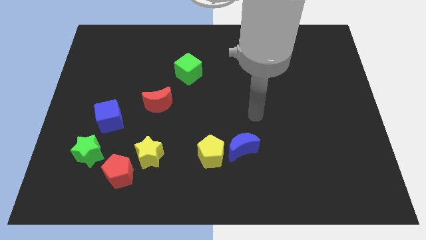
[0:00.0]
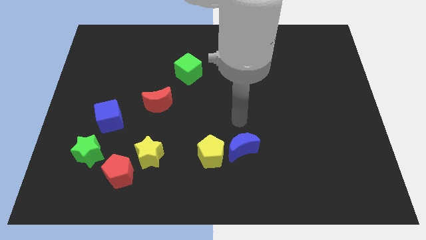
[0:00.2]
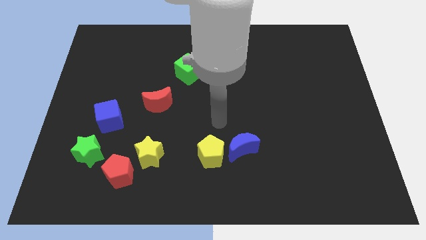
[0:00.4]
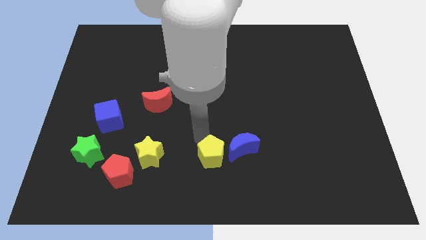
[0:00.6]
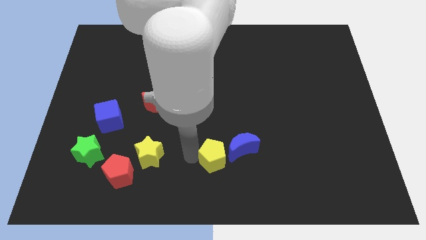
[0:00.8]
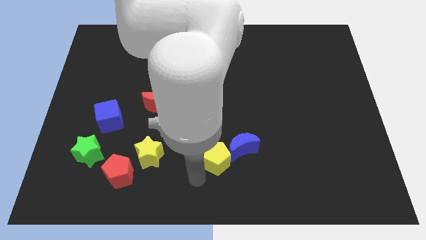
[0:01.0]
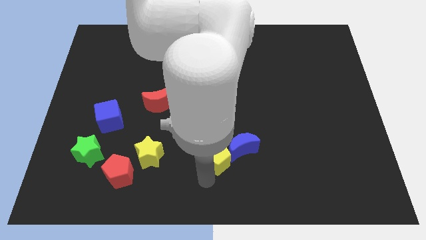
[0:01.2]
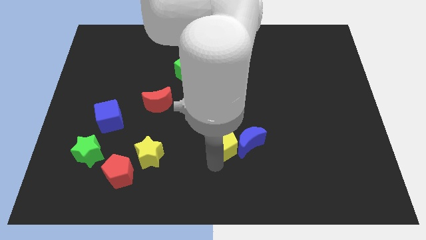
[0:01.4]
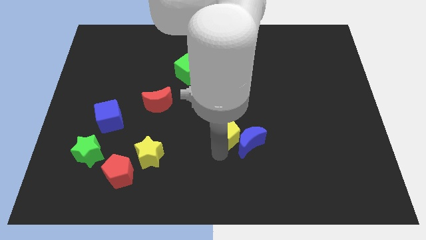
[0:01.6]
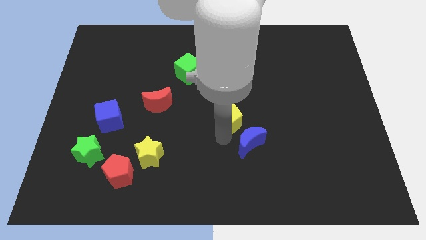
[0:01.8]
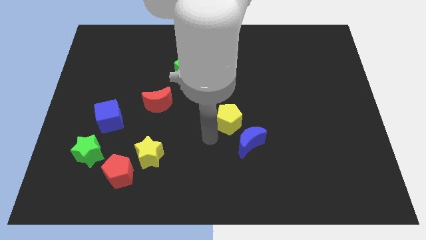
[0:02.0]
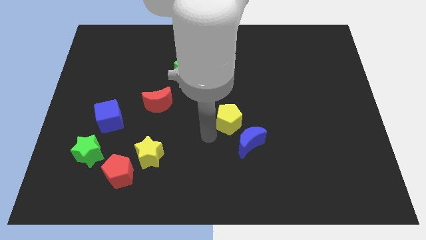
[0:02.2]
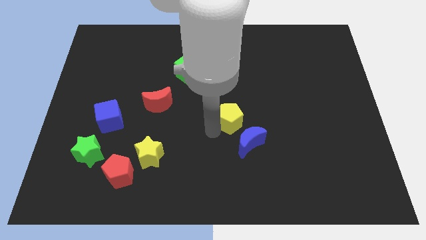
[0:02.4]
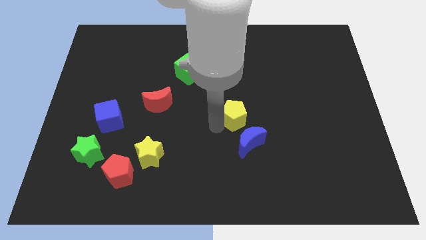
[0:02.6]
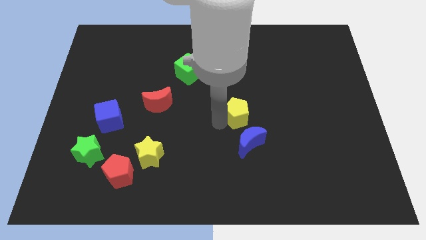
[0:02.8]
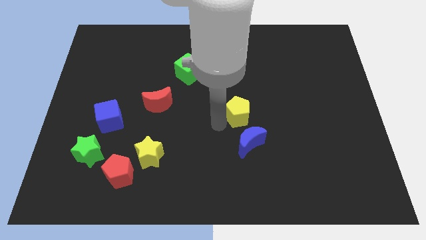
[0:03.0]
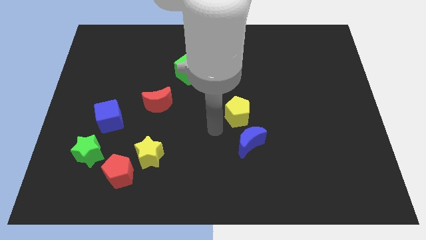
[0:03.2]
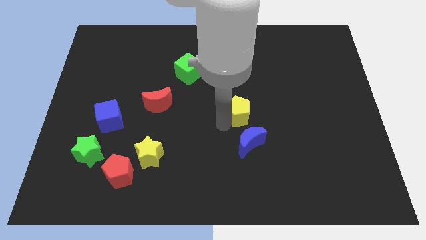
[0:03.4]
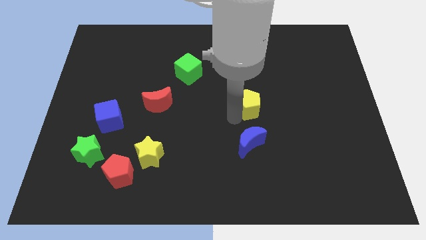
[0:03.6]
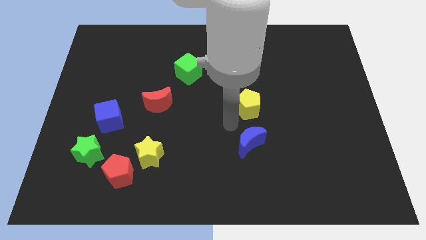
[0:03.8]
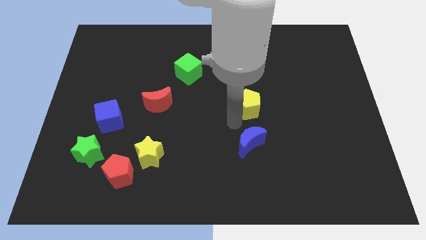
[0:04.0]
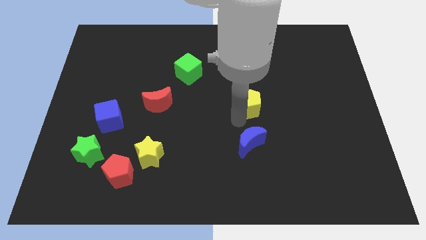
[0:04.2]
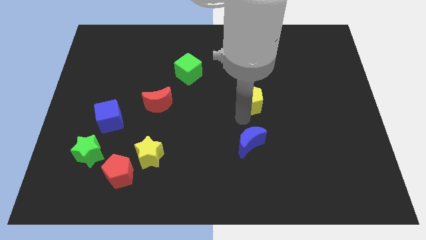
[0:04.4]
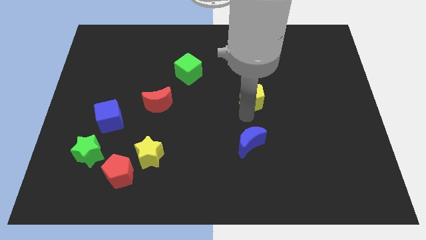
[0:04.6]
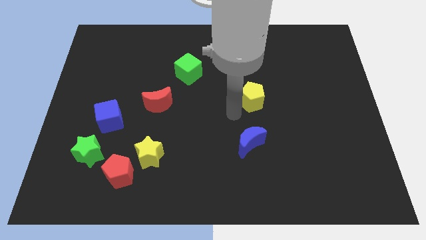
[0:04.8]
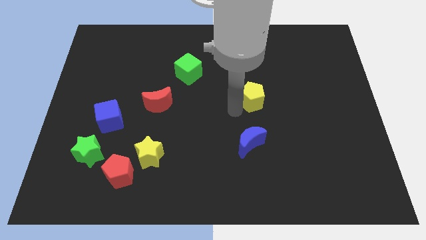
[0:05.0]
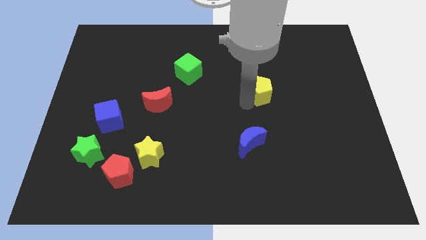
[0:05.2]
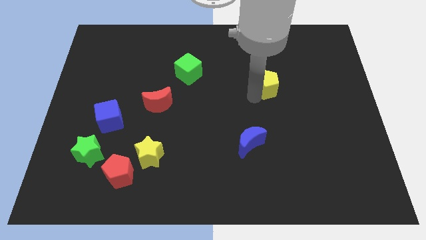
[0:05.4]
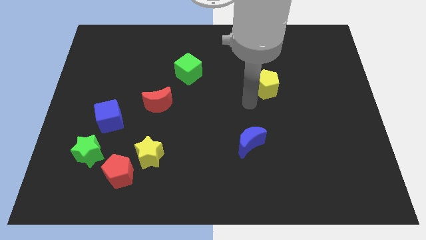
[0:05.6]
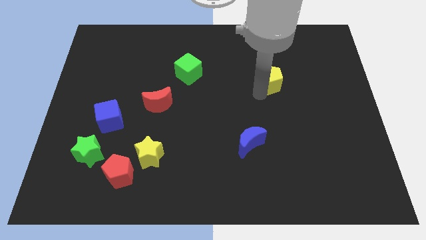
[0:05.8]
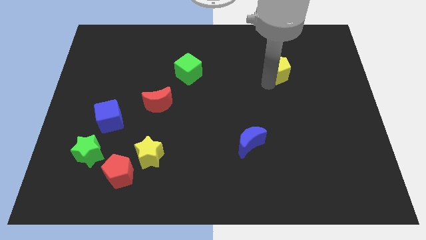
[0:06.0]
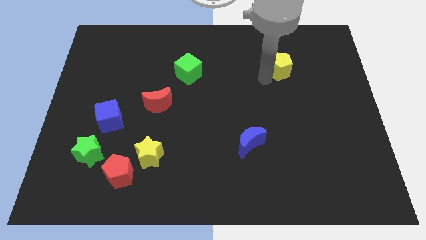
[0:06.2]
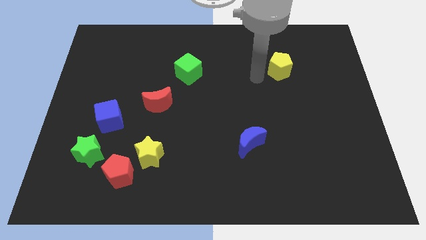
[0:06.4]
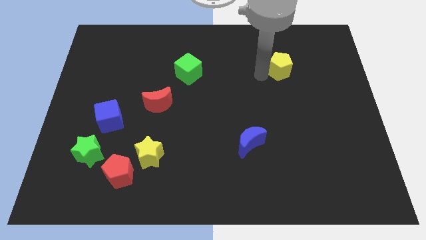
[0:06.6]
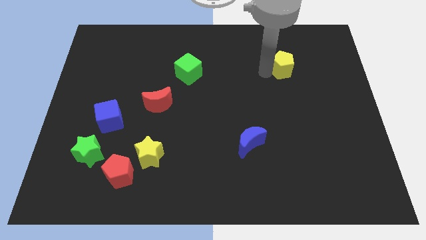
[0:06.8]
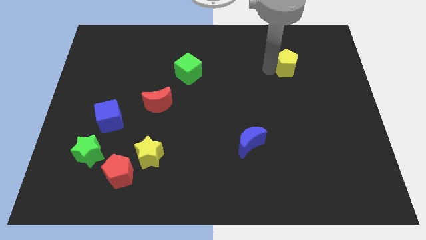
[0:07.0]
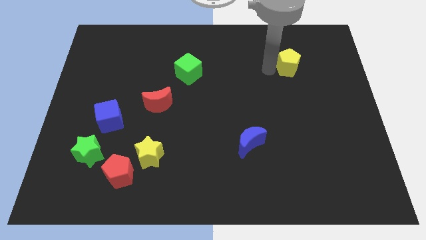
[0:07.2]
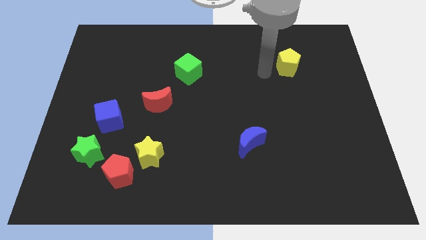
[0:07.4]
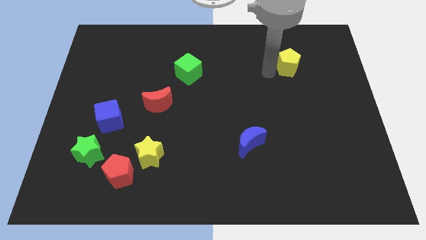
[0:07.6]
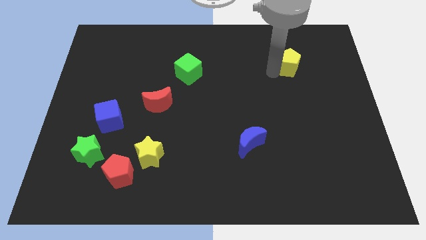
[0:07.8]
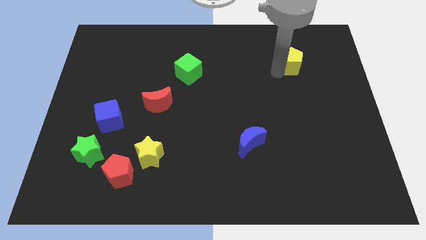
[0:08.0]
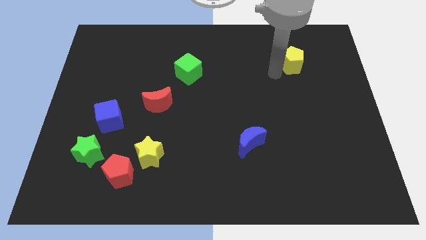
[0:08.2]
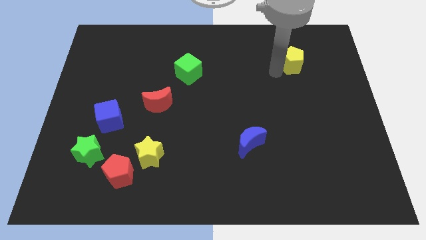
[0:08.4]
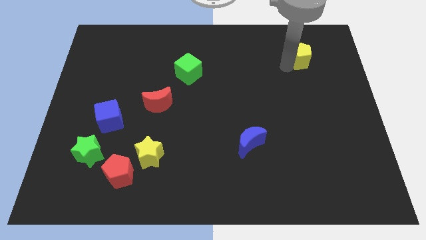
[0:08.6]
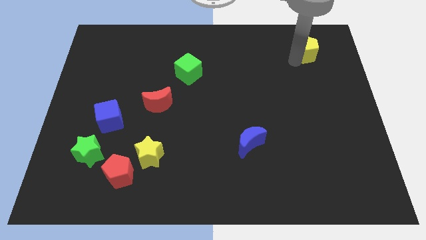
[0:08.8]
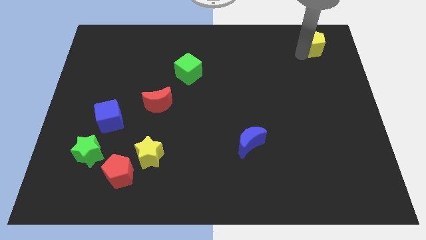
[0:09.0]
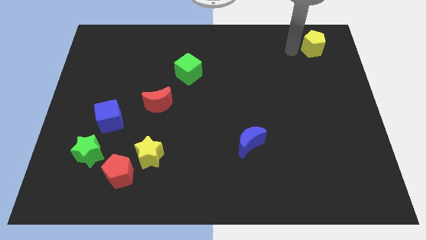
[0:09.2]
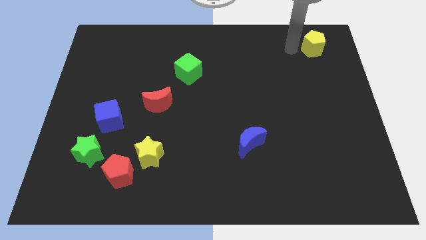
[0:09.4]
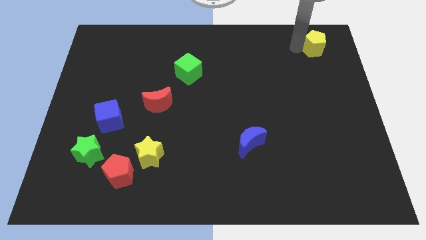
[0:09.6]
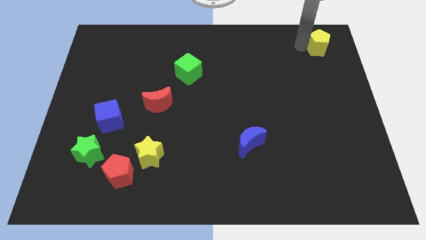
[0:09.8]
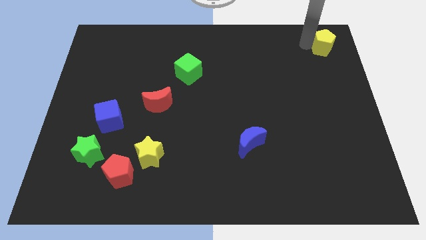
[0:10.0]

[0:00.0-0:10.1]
slide the yellow pentagon to the top right of the board

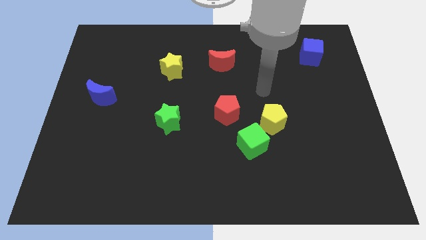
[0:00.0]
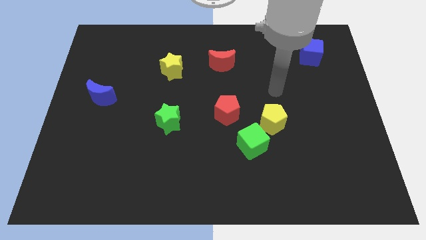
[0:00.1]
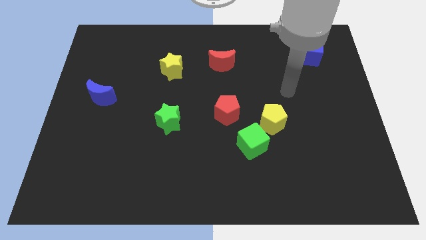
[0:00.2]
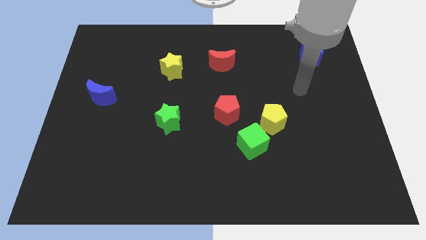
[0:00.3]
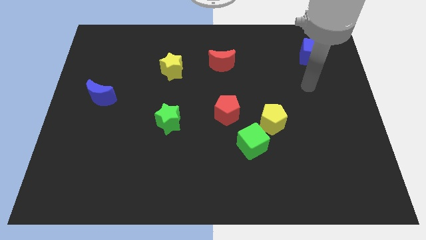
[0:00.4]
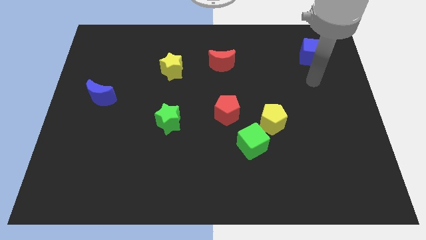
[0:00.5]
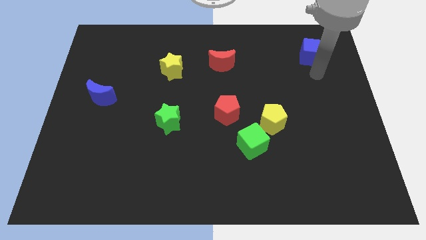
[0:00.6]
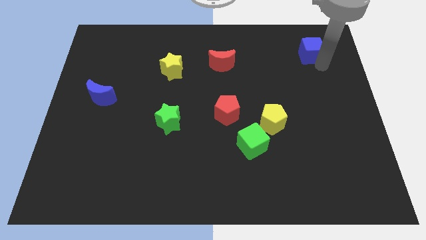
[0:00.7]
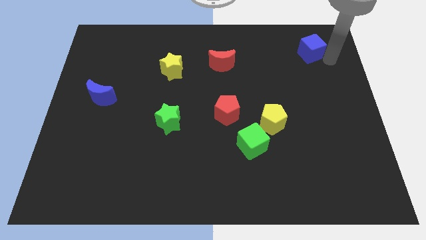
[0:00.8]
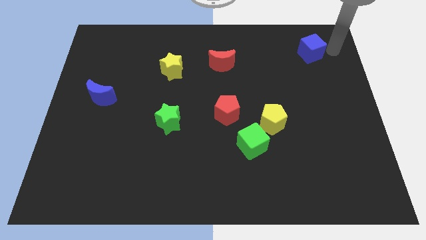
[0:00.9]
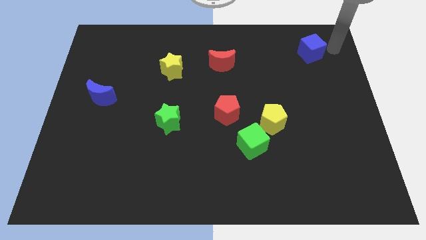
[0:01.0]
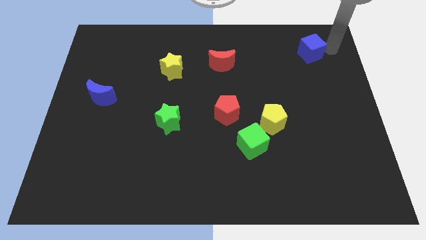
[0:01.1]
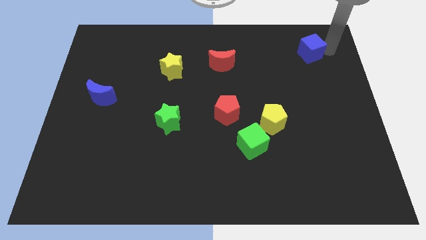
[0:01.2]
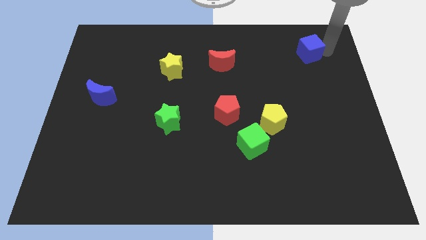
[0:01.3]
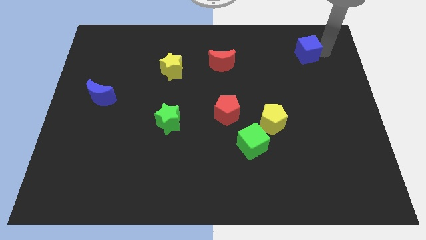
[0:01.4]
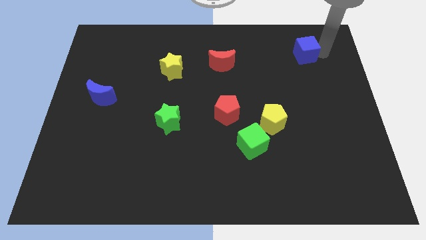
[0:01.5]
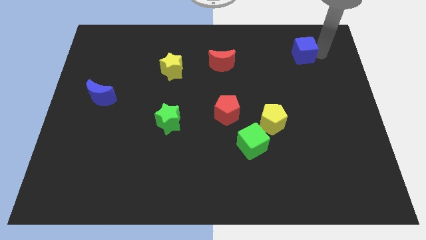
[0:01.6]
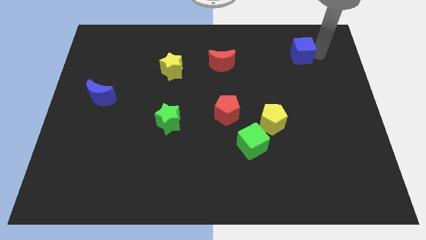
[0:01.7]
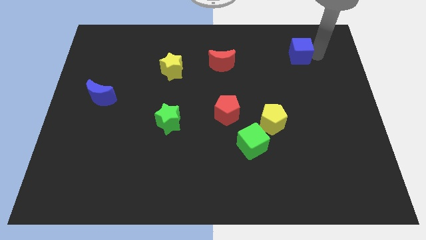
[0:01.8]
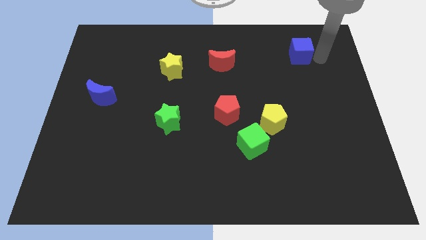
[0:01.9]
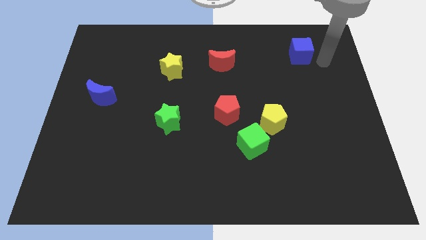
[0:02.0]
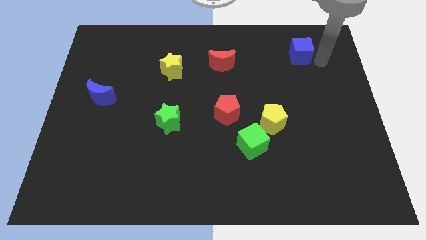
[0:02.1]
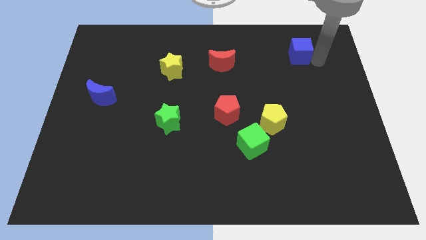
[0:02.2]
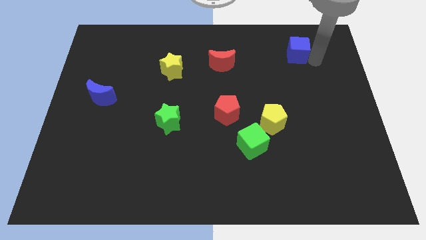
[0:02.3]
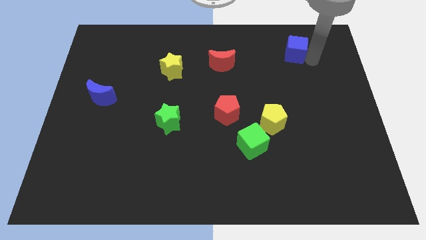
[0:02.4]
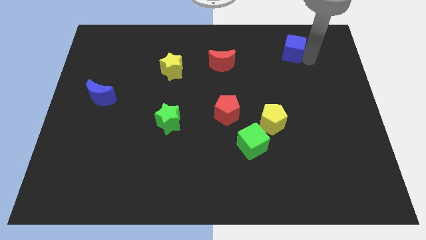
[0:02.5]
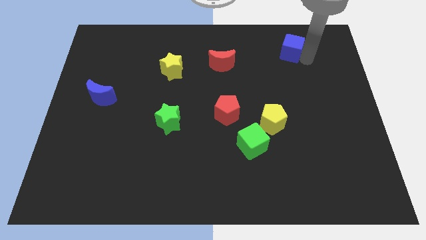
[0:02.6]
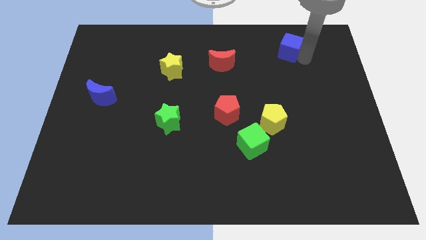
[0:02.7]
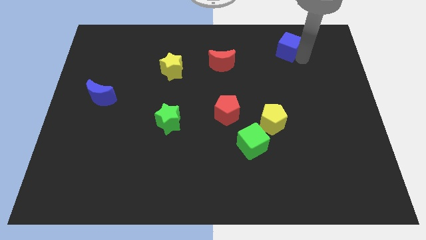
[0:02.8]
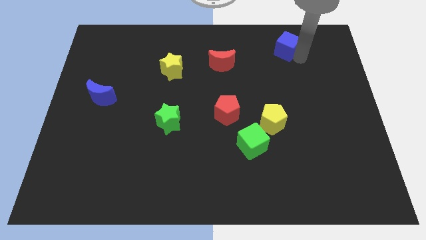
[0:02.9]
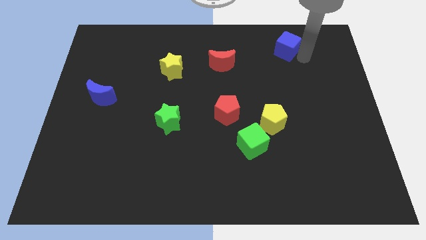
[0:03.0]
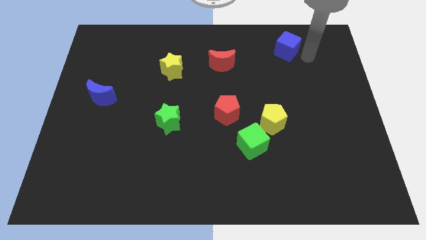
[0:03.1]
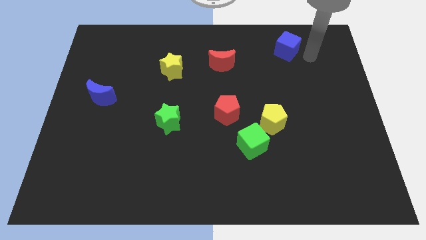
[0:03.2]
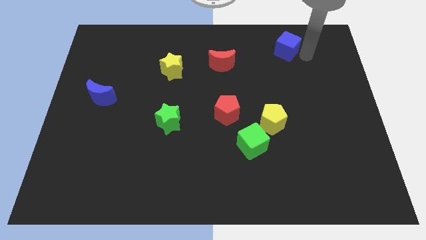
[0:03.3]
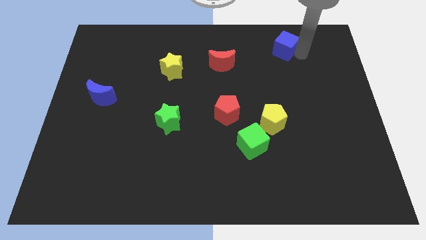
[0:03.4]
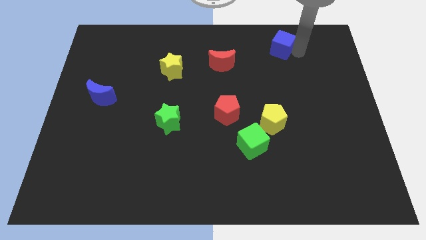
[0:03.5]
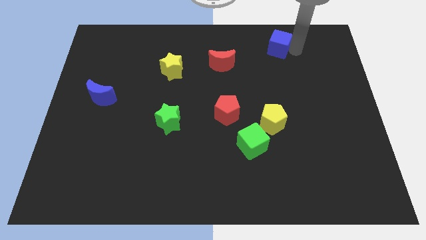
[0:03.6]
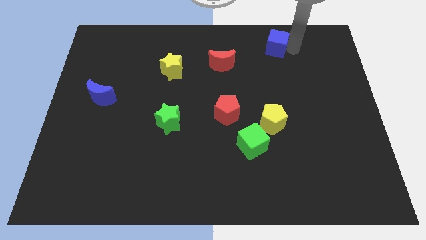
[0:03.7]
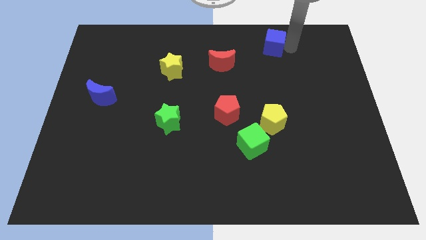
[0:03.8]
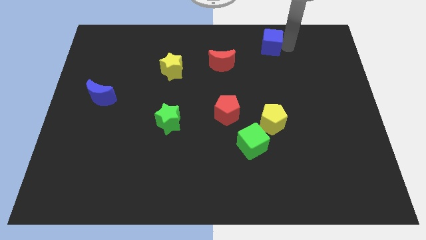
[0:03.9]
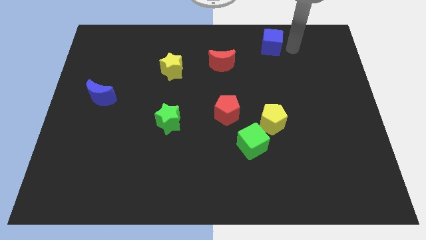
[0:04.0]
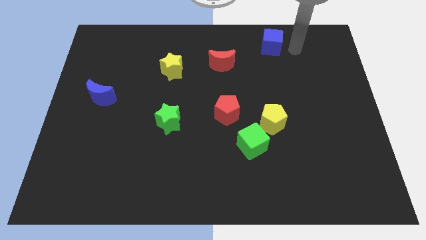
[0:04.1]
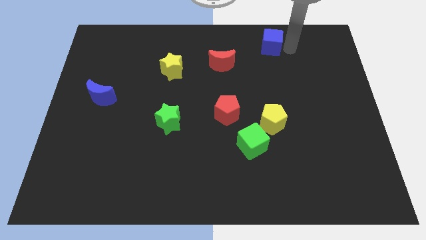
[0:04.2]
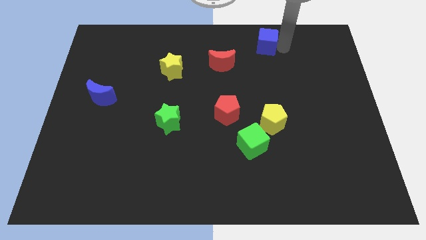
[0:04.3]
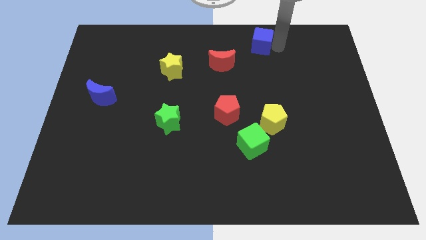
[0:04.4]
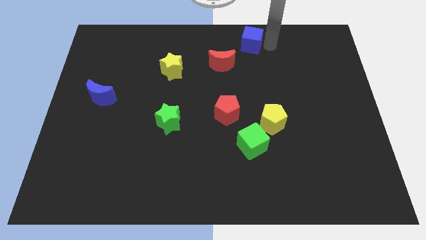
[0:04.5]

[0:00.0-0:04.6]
slide the blue cube to the towards your base
